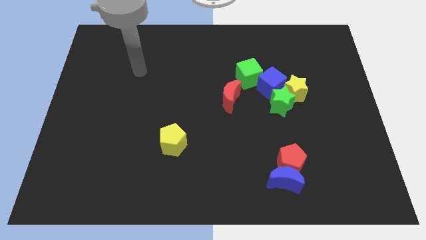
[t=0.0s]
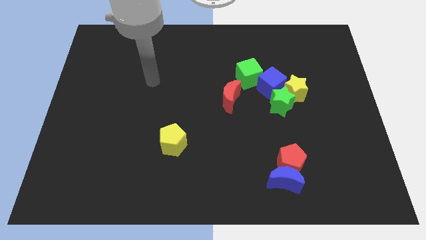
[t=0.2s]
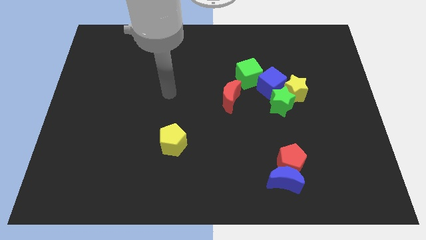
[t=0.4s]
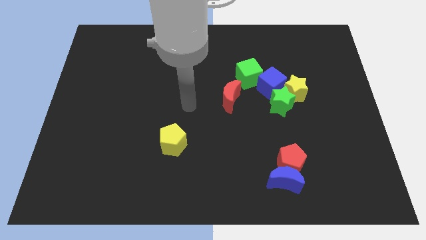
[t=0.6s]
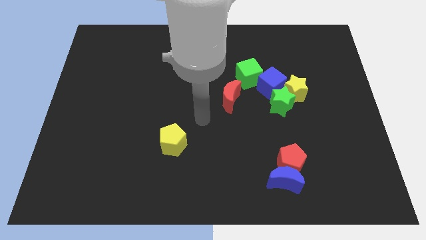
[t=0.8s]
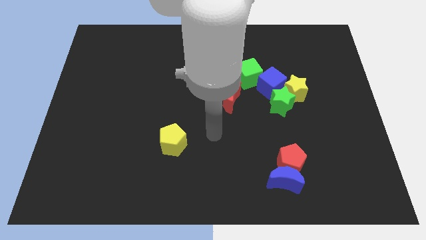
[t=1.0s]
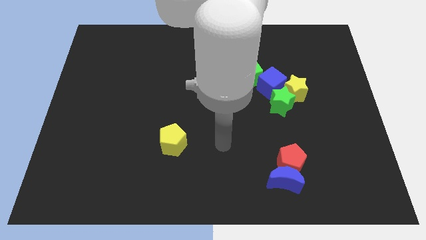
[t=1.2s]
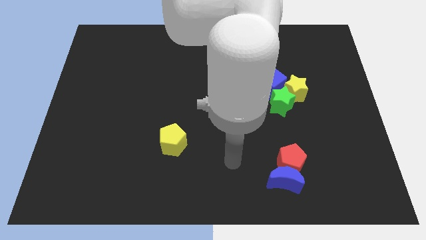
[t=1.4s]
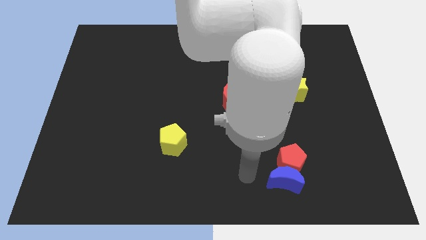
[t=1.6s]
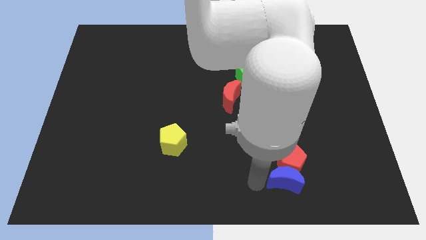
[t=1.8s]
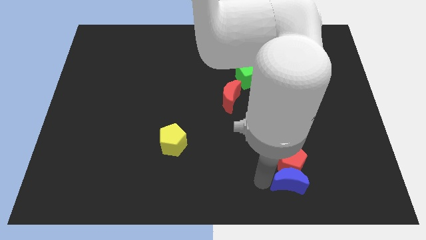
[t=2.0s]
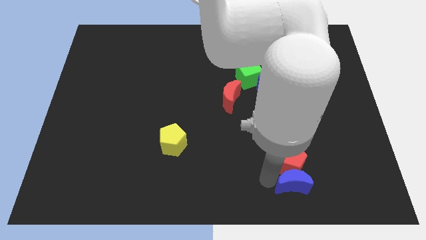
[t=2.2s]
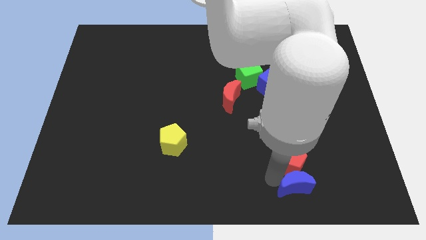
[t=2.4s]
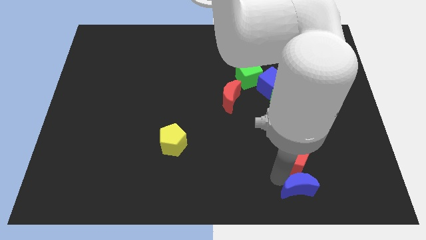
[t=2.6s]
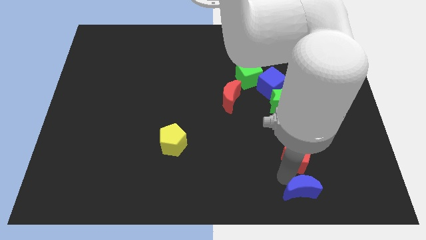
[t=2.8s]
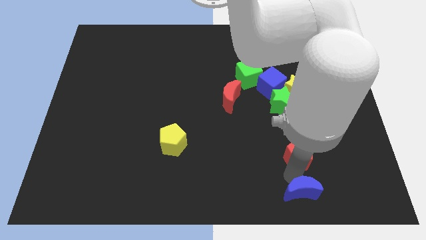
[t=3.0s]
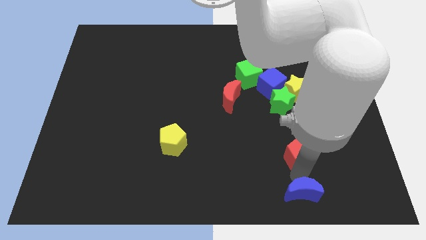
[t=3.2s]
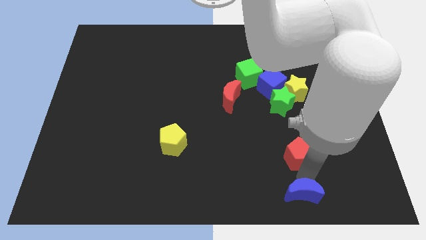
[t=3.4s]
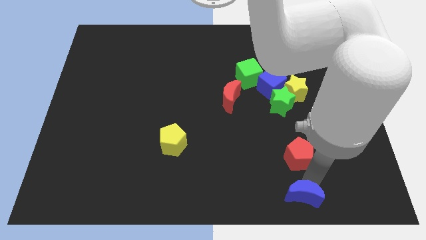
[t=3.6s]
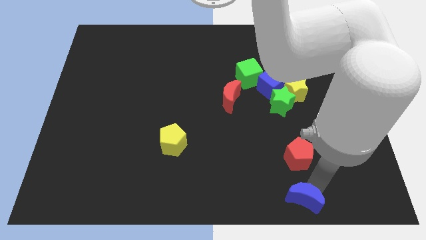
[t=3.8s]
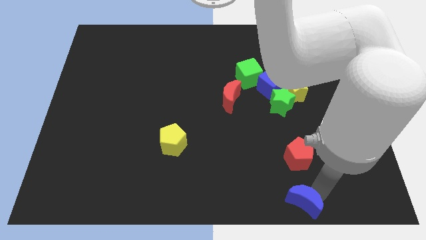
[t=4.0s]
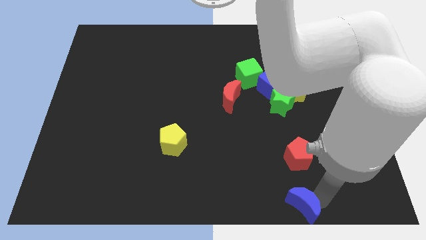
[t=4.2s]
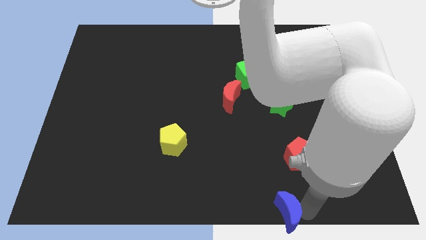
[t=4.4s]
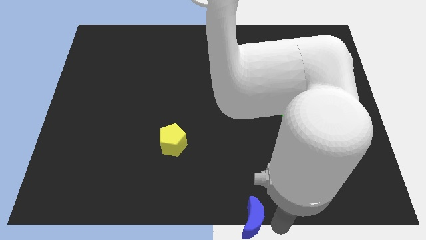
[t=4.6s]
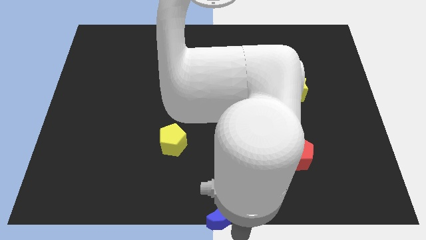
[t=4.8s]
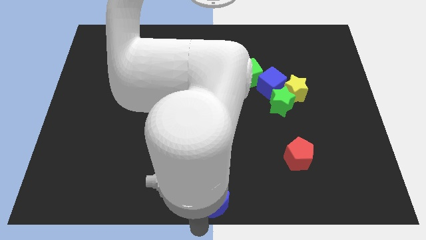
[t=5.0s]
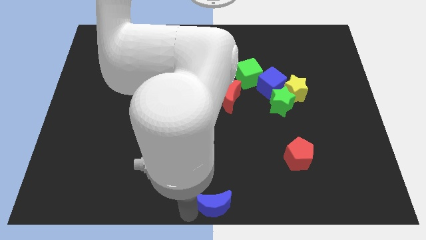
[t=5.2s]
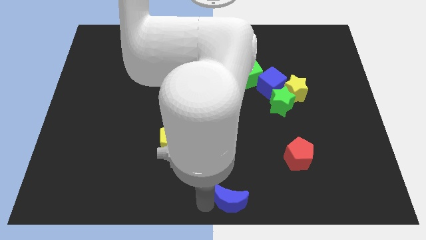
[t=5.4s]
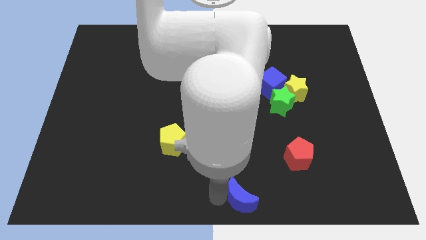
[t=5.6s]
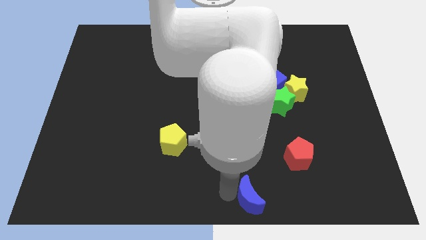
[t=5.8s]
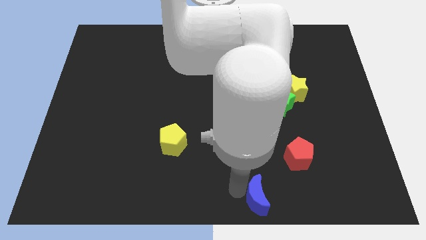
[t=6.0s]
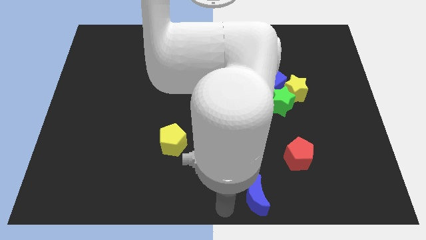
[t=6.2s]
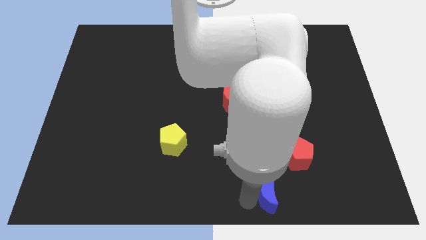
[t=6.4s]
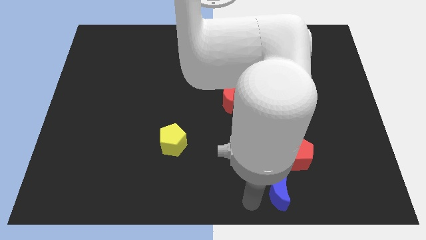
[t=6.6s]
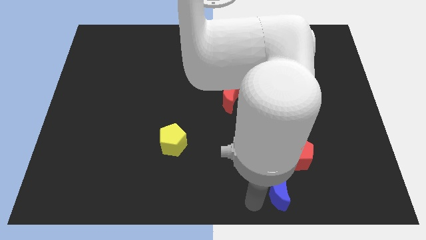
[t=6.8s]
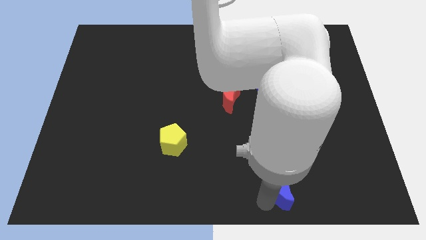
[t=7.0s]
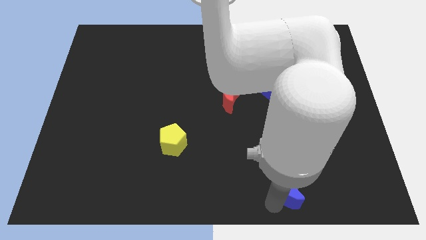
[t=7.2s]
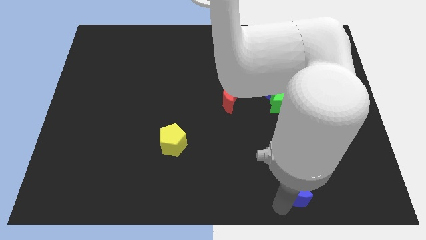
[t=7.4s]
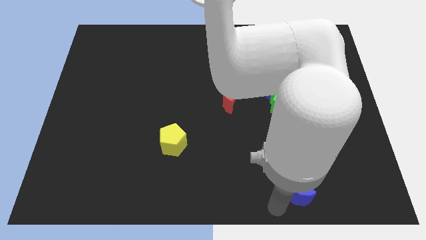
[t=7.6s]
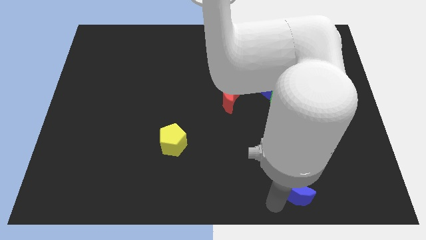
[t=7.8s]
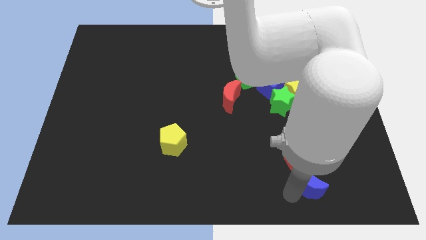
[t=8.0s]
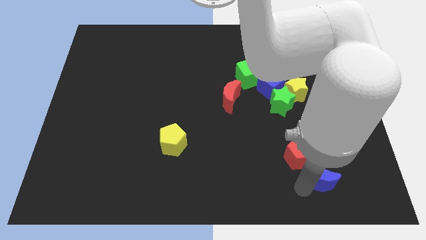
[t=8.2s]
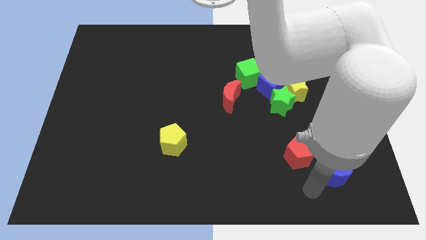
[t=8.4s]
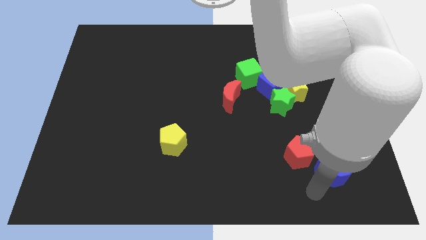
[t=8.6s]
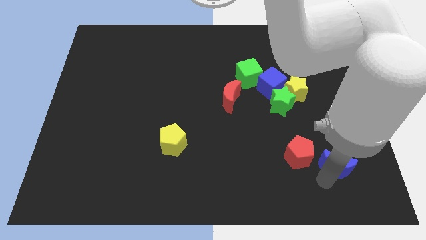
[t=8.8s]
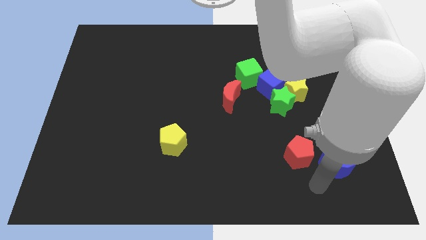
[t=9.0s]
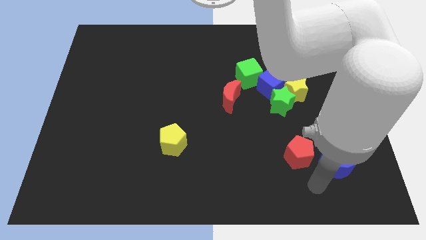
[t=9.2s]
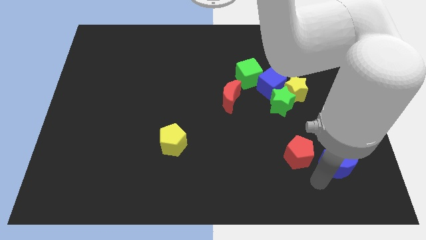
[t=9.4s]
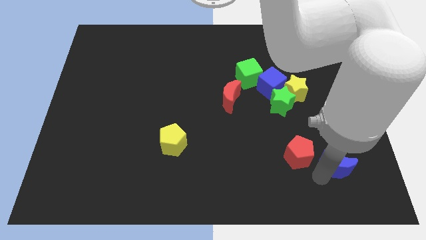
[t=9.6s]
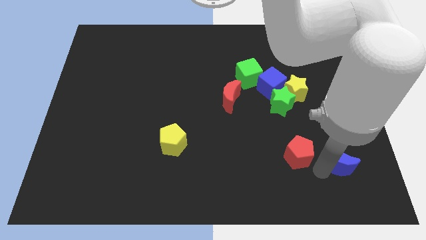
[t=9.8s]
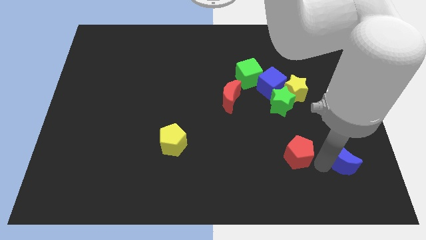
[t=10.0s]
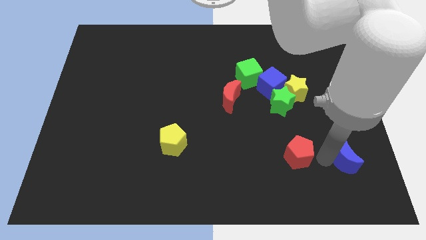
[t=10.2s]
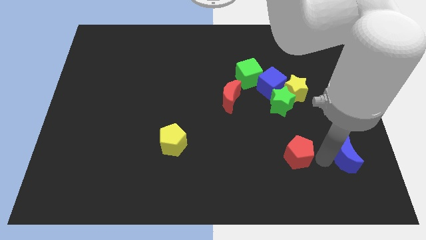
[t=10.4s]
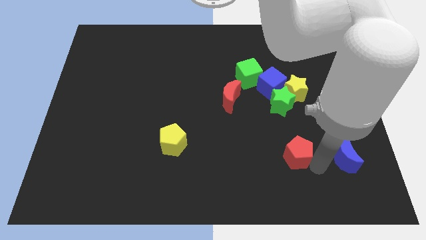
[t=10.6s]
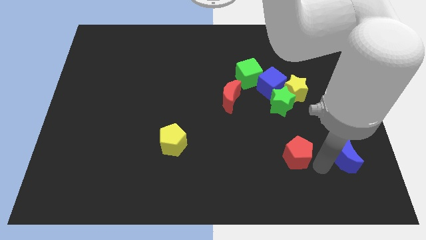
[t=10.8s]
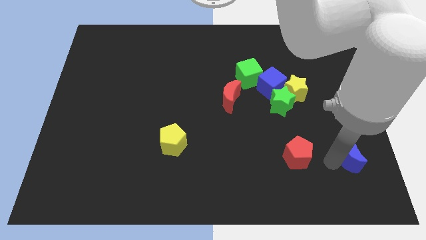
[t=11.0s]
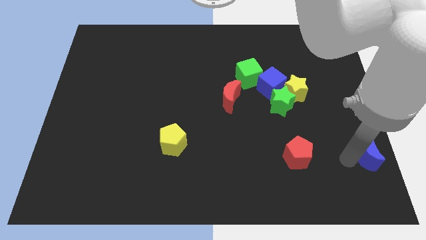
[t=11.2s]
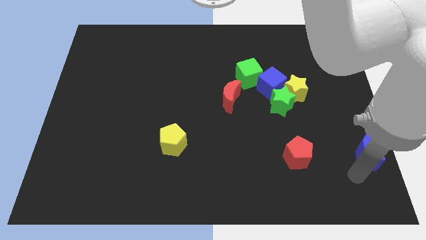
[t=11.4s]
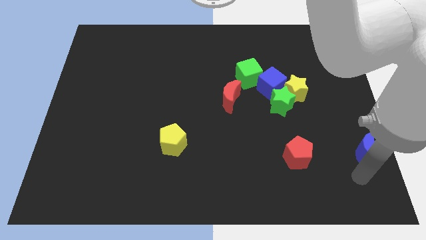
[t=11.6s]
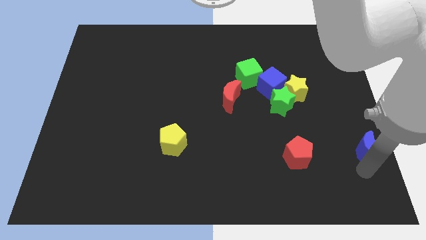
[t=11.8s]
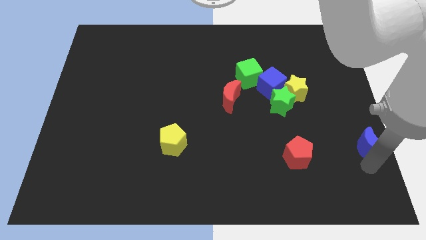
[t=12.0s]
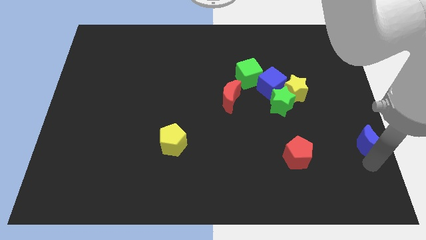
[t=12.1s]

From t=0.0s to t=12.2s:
move the blue moon to the center right

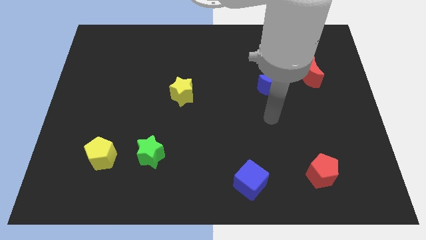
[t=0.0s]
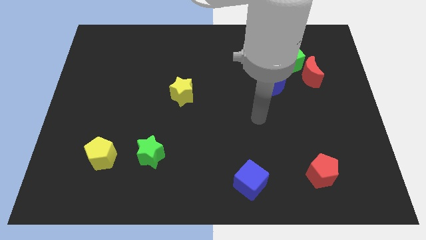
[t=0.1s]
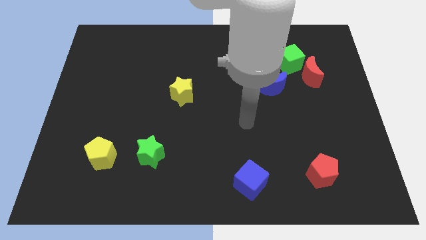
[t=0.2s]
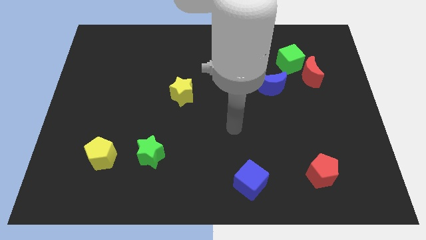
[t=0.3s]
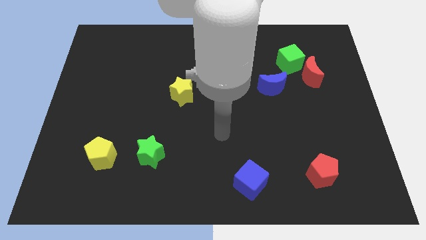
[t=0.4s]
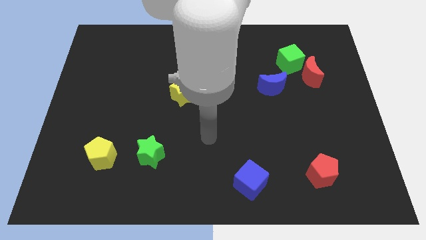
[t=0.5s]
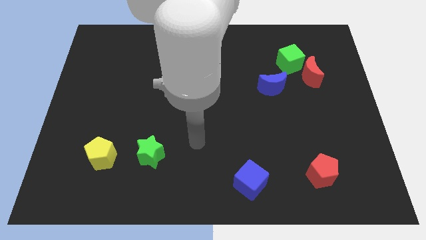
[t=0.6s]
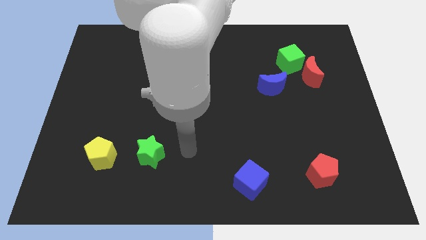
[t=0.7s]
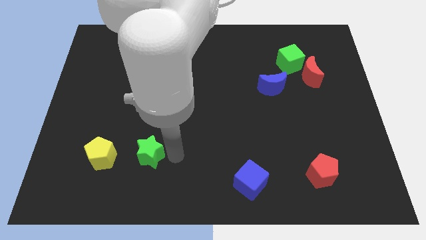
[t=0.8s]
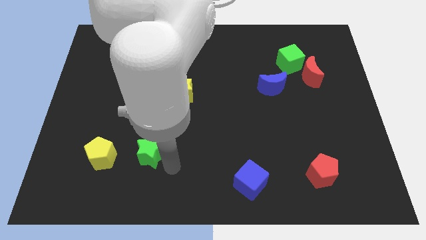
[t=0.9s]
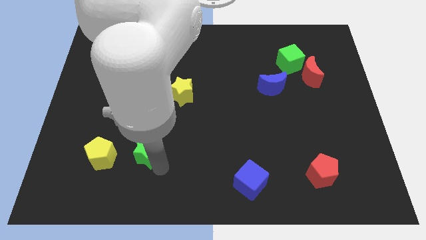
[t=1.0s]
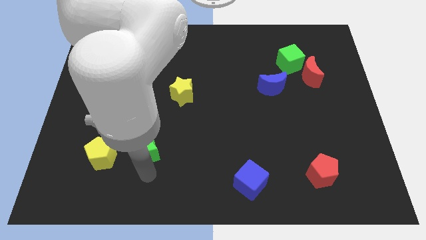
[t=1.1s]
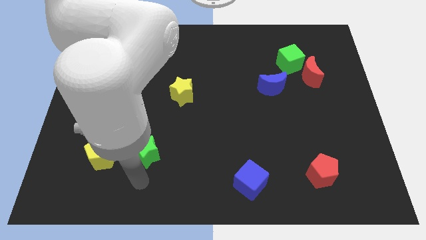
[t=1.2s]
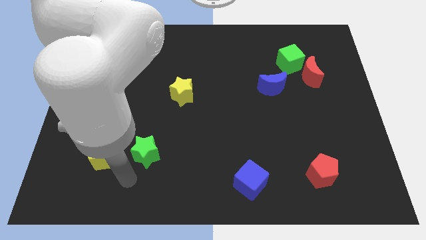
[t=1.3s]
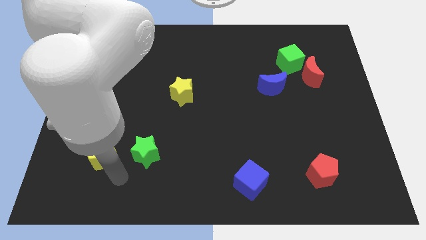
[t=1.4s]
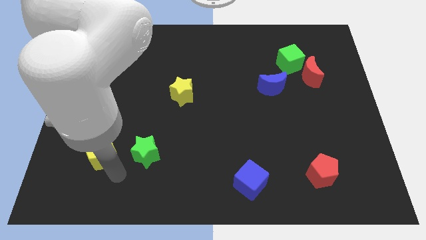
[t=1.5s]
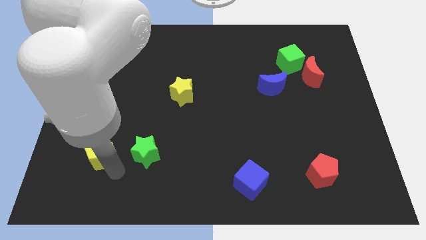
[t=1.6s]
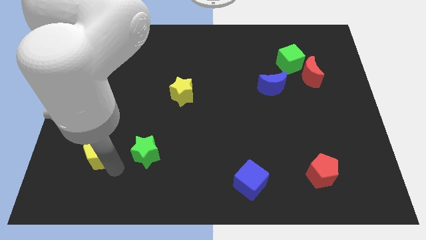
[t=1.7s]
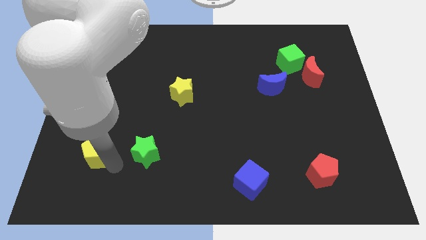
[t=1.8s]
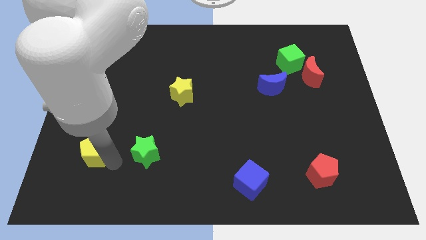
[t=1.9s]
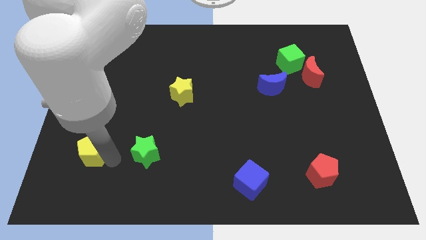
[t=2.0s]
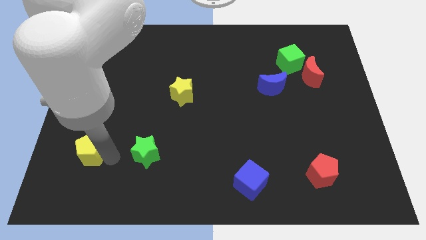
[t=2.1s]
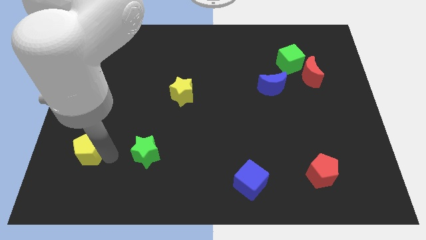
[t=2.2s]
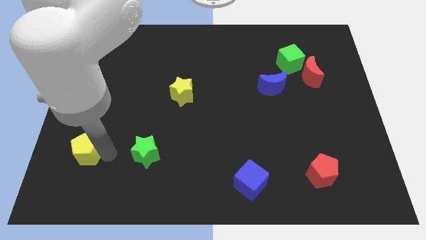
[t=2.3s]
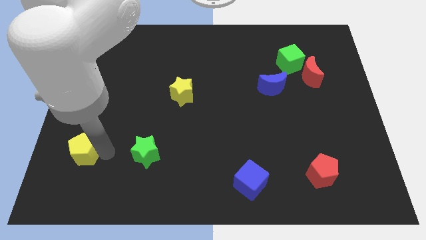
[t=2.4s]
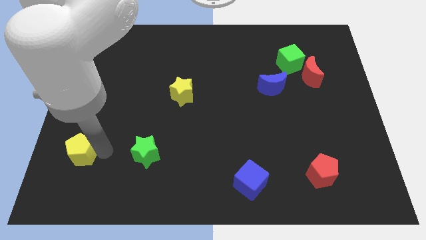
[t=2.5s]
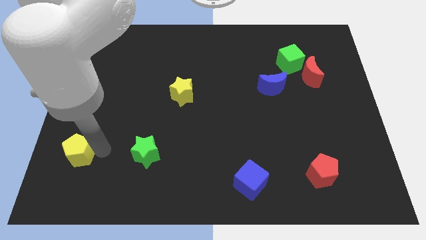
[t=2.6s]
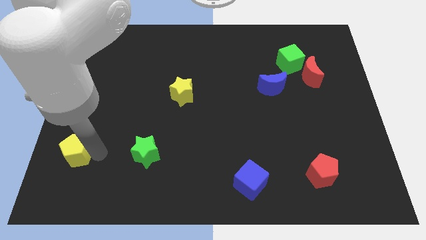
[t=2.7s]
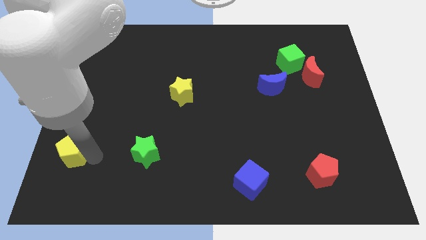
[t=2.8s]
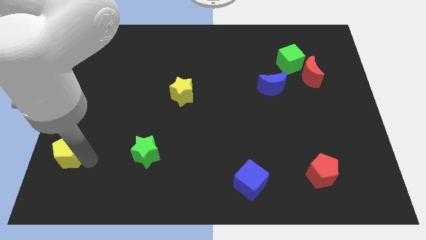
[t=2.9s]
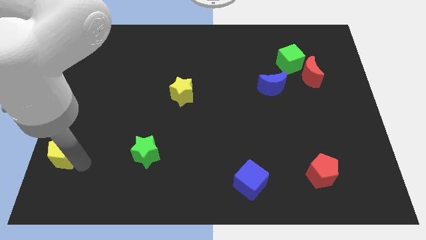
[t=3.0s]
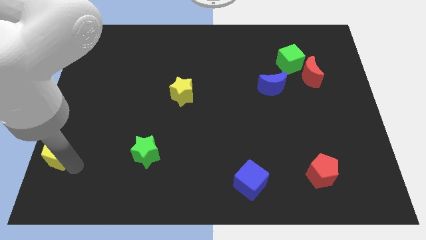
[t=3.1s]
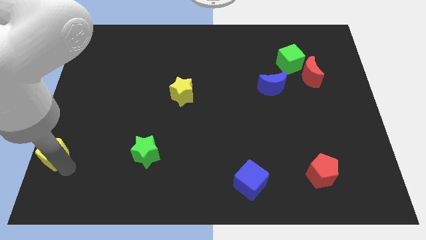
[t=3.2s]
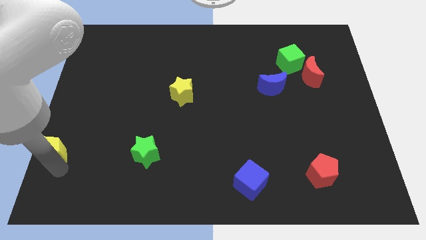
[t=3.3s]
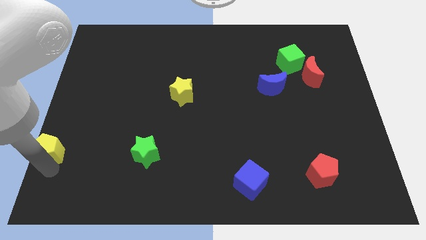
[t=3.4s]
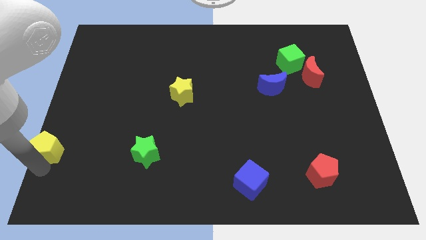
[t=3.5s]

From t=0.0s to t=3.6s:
put the yellow pentagon to the left side
